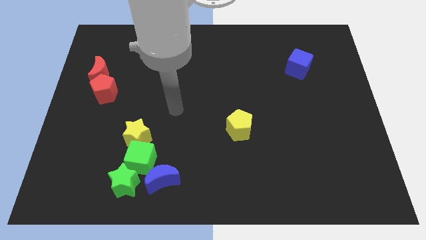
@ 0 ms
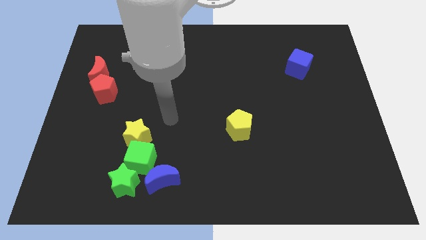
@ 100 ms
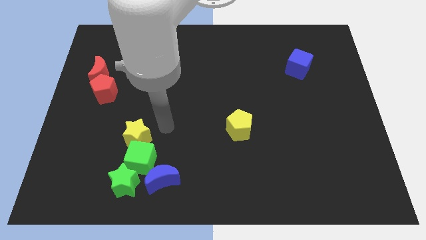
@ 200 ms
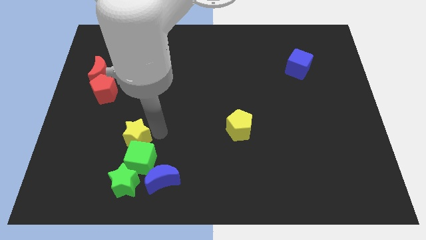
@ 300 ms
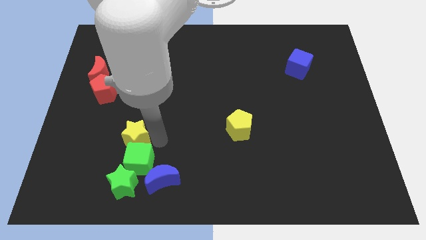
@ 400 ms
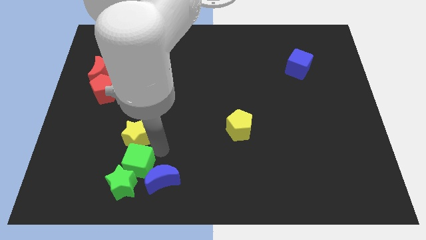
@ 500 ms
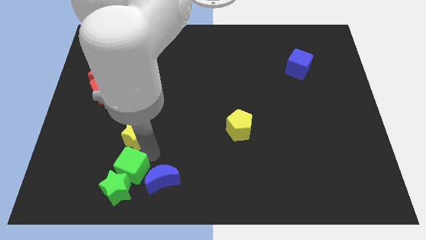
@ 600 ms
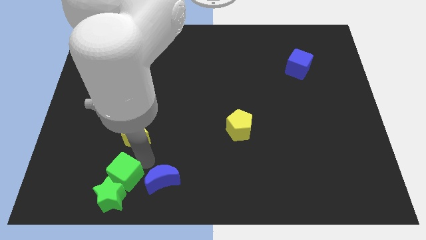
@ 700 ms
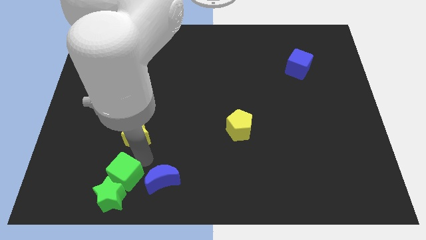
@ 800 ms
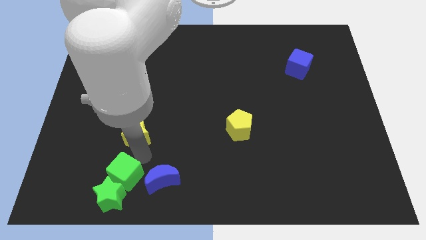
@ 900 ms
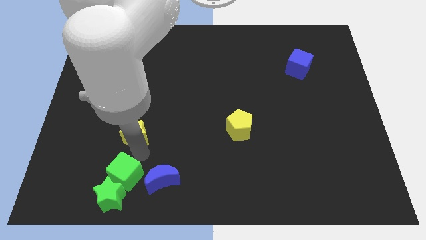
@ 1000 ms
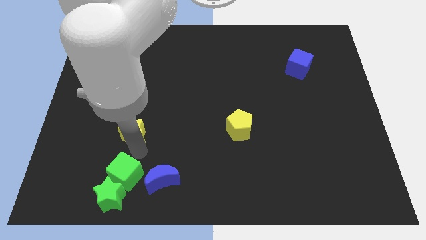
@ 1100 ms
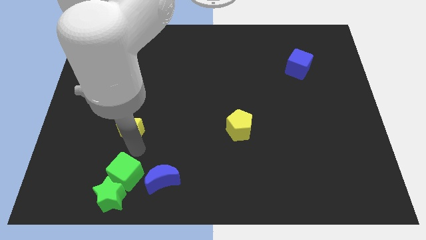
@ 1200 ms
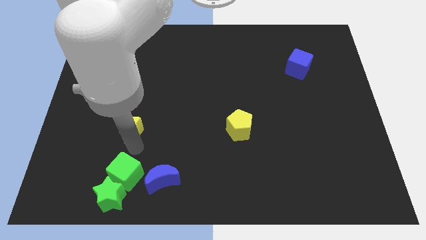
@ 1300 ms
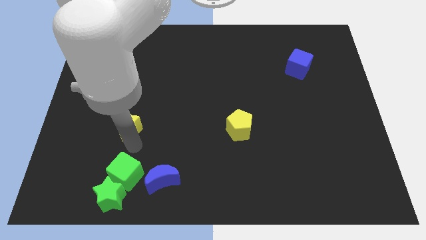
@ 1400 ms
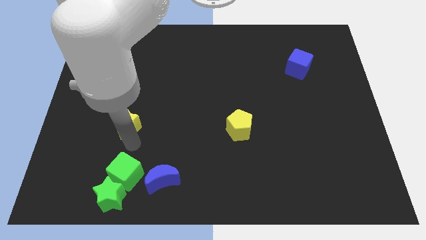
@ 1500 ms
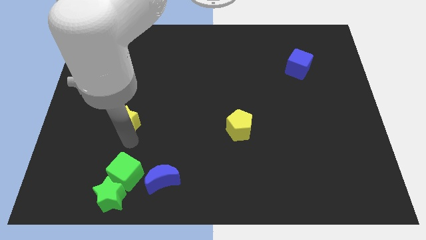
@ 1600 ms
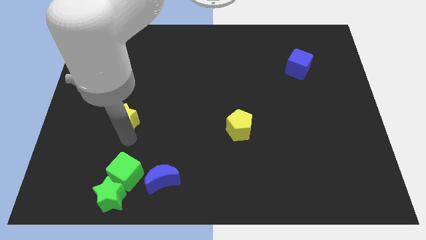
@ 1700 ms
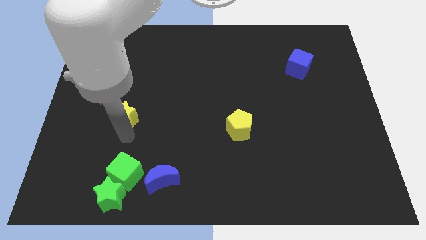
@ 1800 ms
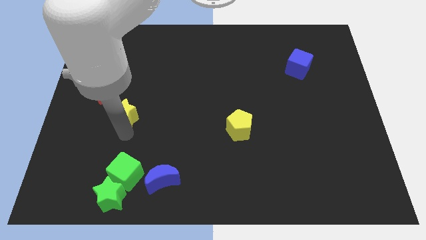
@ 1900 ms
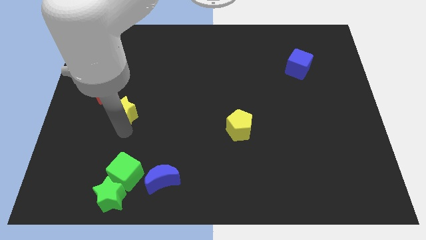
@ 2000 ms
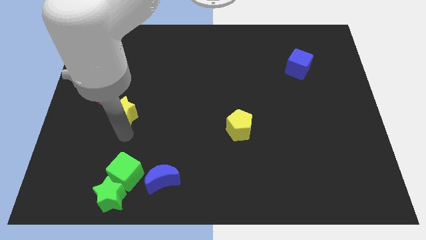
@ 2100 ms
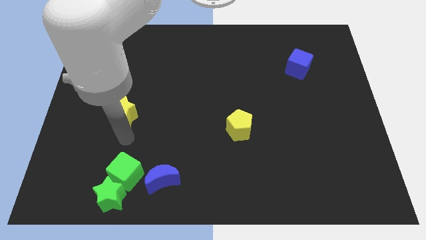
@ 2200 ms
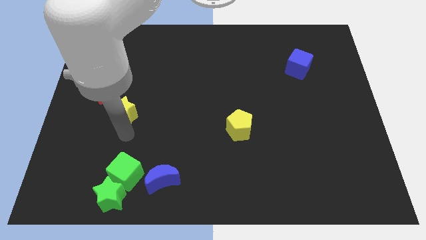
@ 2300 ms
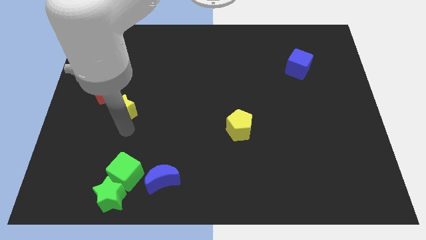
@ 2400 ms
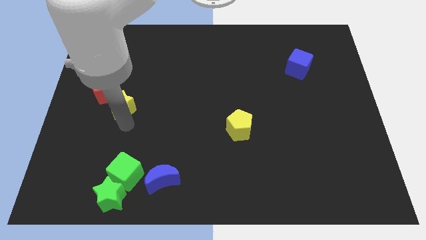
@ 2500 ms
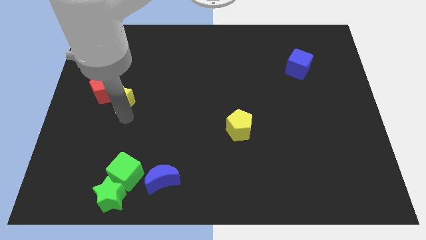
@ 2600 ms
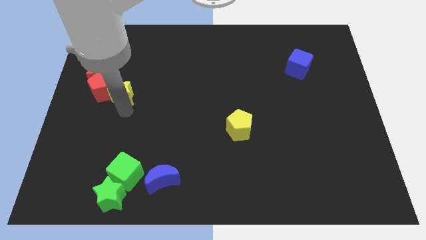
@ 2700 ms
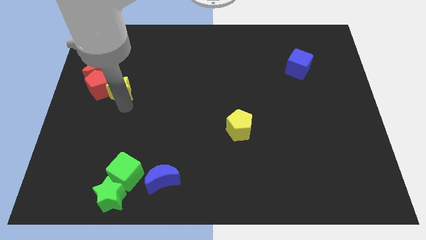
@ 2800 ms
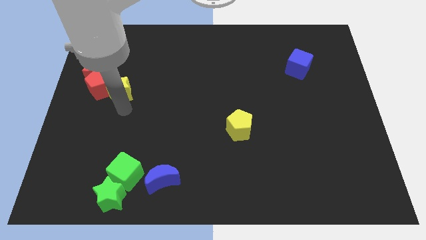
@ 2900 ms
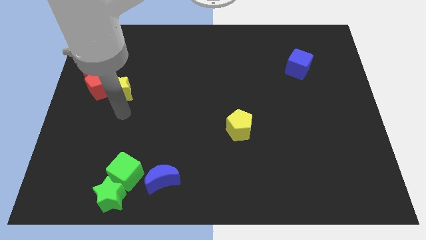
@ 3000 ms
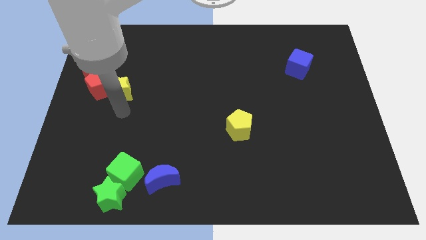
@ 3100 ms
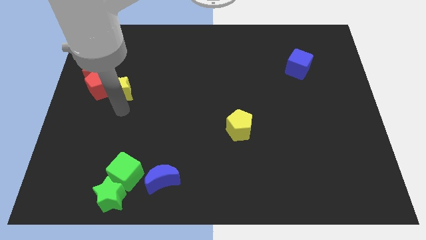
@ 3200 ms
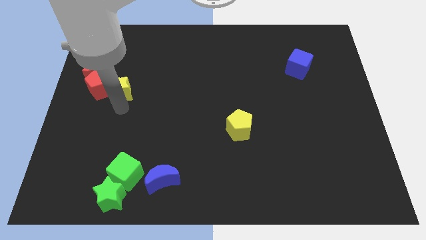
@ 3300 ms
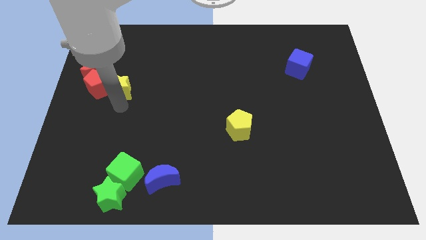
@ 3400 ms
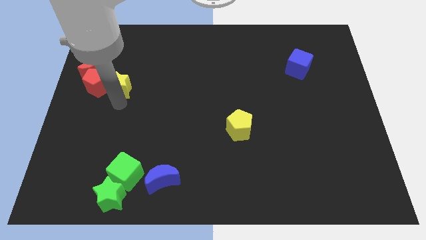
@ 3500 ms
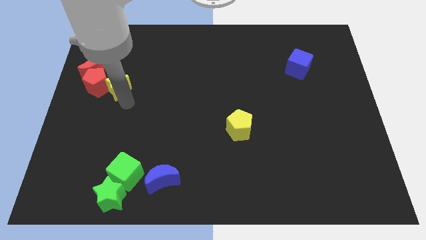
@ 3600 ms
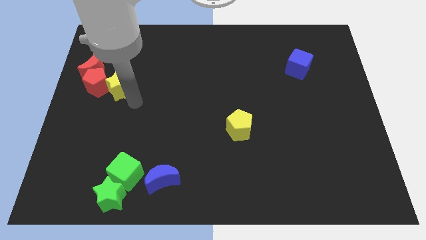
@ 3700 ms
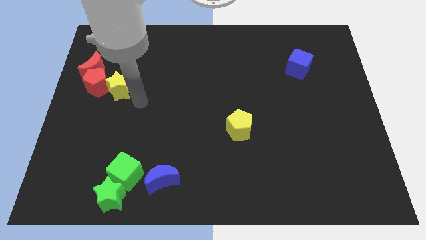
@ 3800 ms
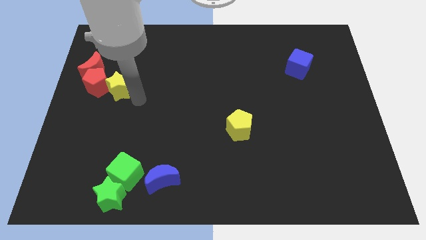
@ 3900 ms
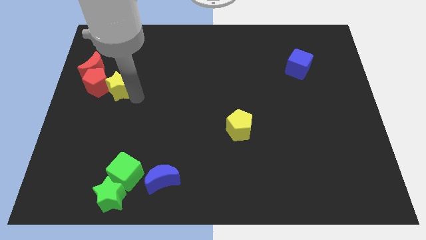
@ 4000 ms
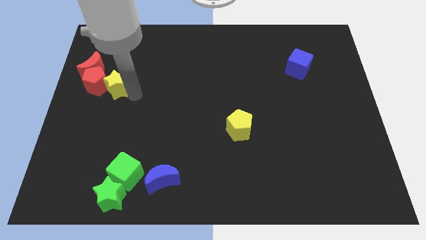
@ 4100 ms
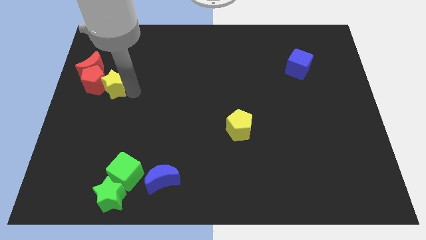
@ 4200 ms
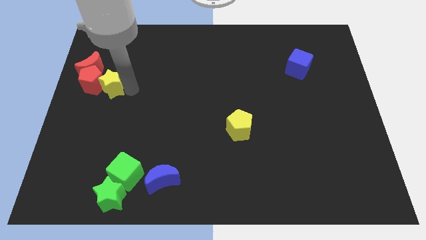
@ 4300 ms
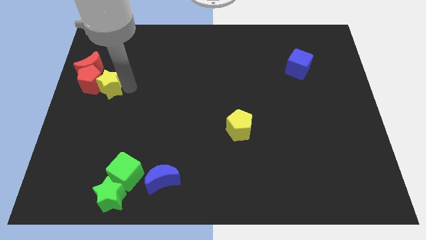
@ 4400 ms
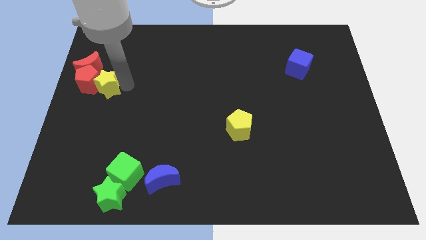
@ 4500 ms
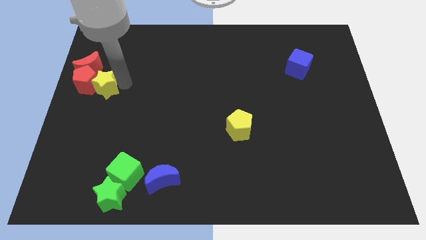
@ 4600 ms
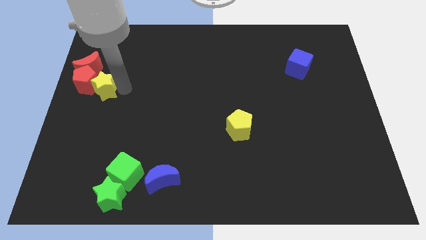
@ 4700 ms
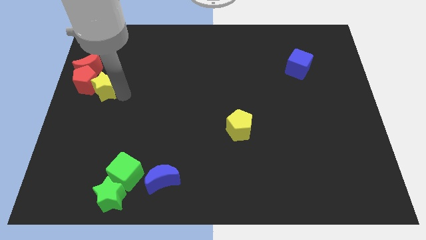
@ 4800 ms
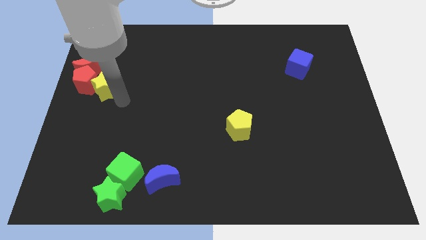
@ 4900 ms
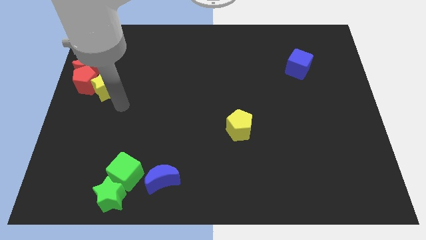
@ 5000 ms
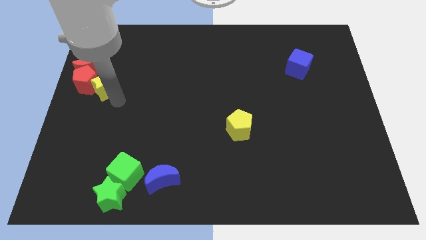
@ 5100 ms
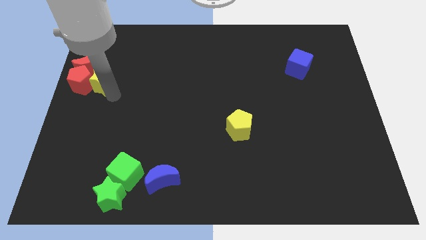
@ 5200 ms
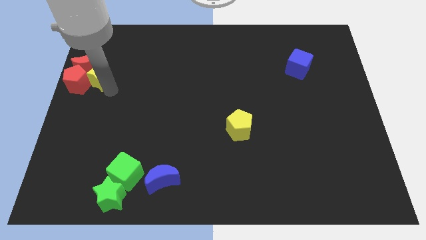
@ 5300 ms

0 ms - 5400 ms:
put the yellow star to the red moon

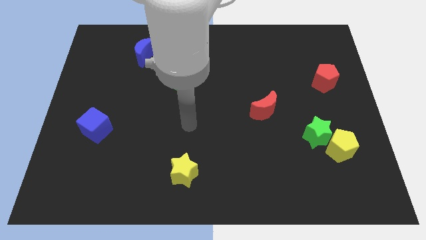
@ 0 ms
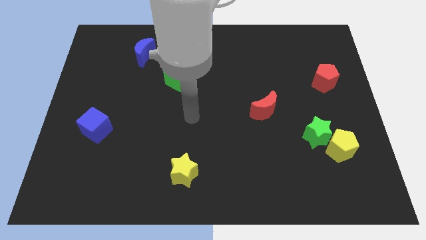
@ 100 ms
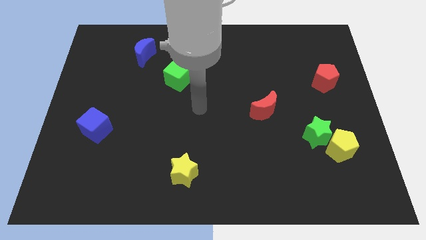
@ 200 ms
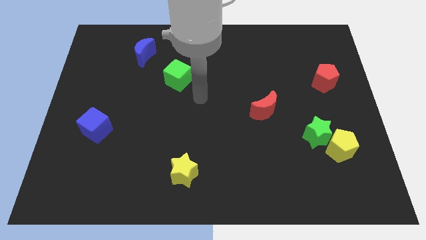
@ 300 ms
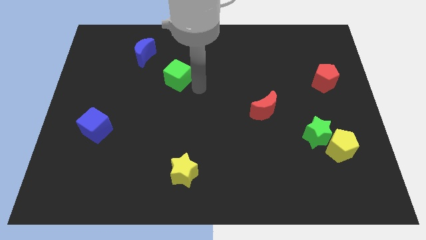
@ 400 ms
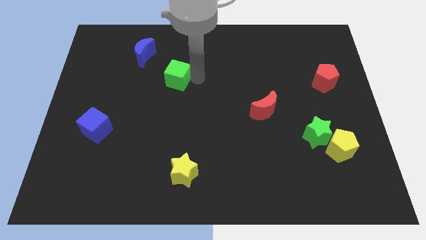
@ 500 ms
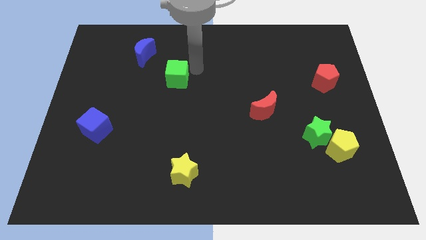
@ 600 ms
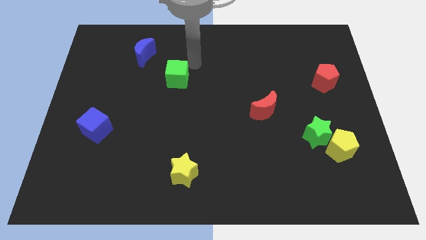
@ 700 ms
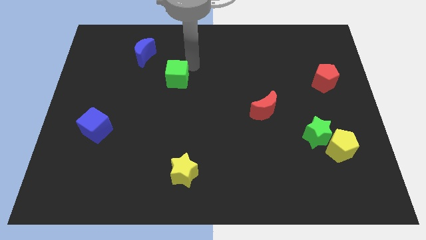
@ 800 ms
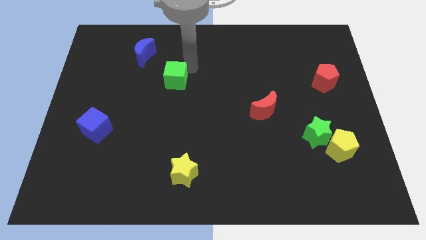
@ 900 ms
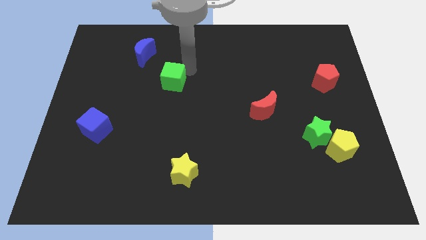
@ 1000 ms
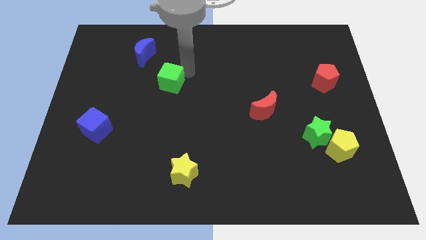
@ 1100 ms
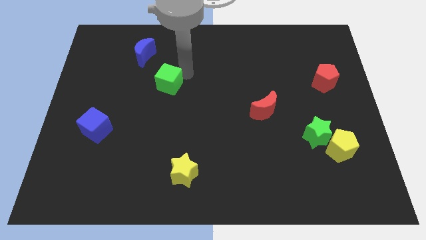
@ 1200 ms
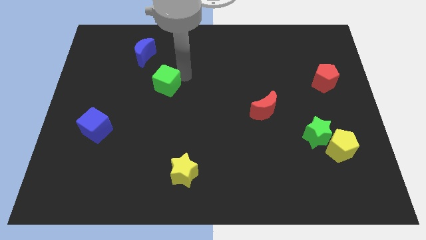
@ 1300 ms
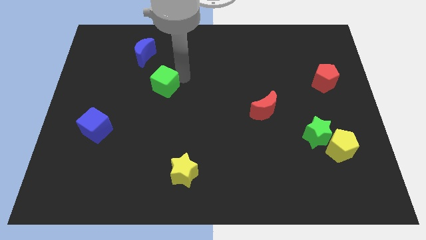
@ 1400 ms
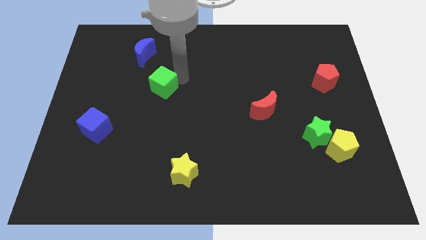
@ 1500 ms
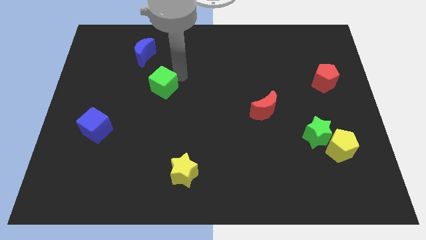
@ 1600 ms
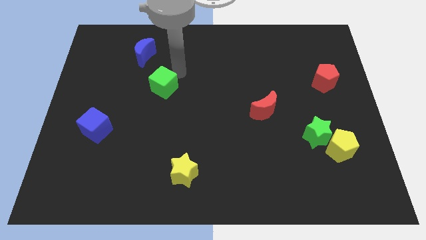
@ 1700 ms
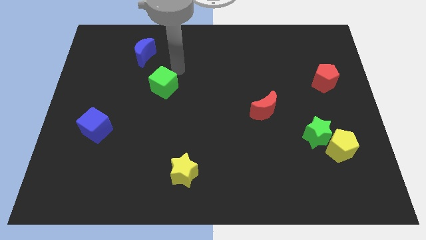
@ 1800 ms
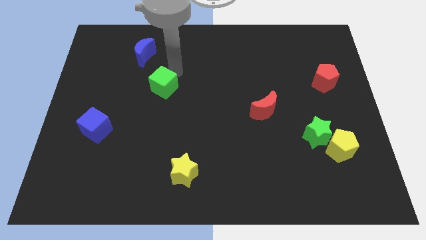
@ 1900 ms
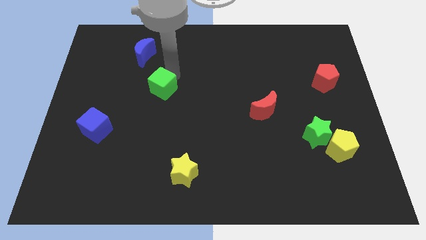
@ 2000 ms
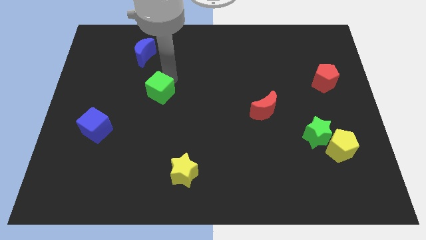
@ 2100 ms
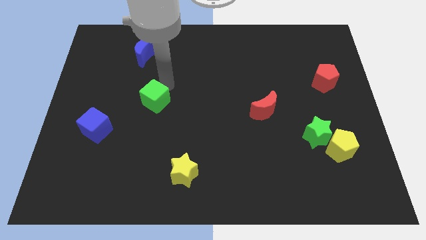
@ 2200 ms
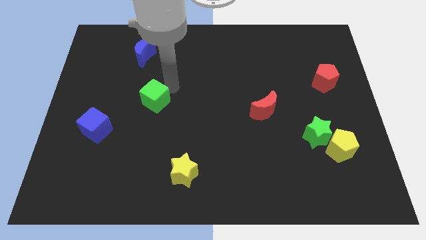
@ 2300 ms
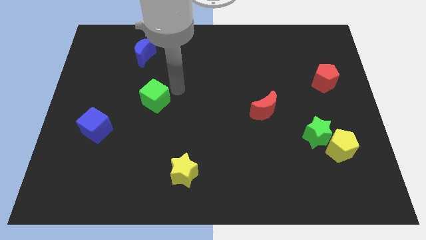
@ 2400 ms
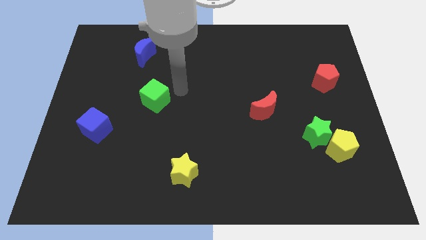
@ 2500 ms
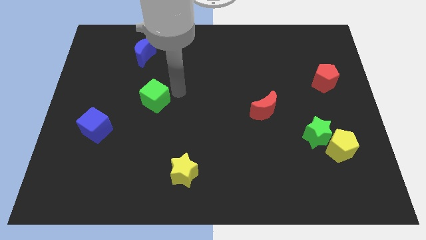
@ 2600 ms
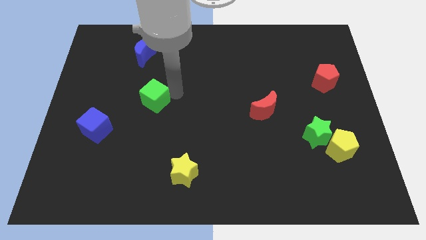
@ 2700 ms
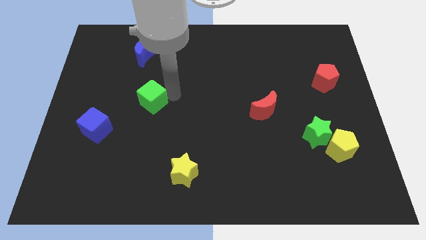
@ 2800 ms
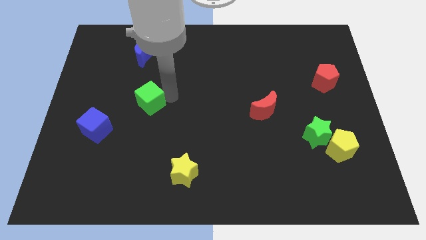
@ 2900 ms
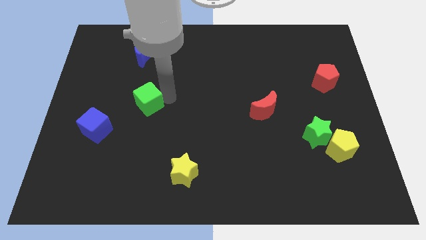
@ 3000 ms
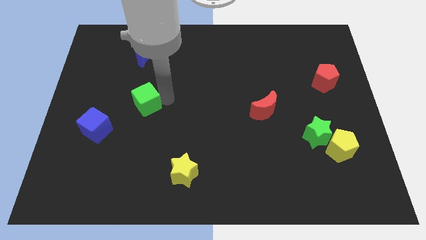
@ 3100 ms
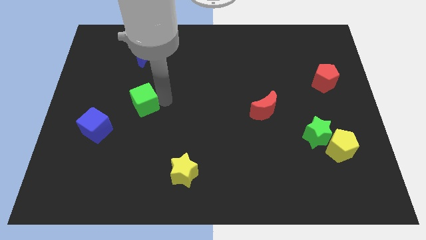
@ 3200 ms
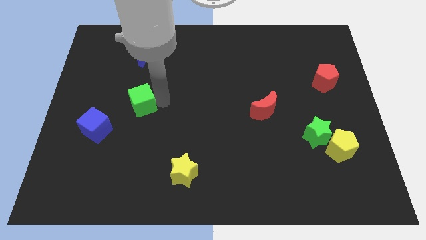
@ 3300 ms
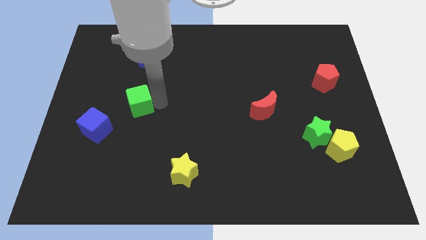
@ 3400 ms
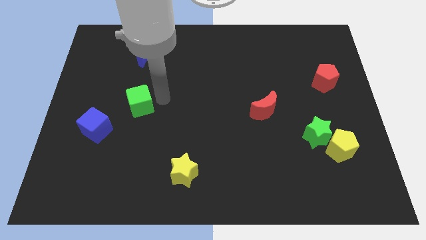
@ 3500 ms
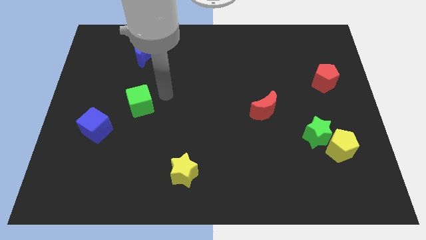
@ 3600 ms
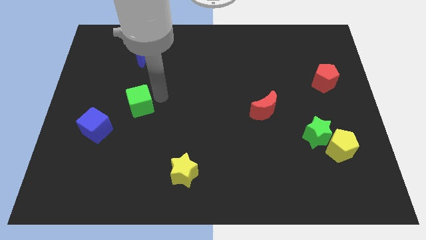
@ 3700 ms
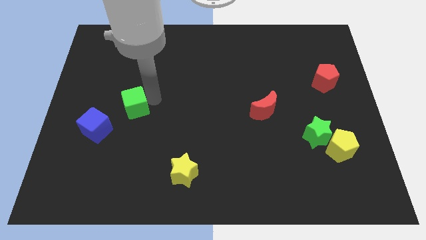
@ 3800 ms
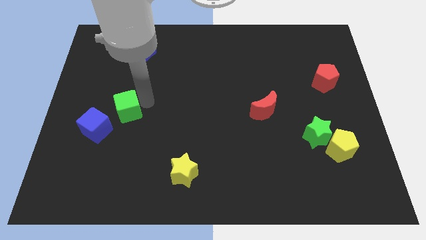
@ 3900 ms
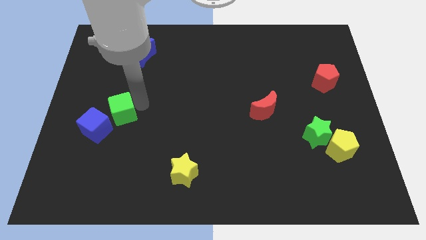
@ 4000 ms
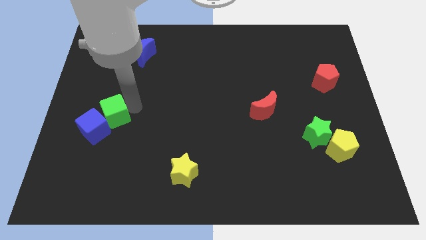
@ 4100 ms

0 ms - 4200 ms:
slide the green cube close to the blue cube
